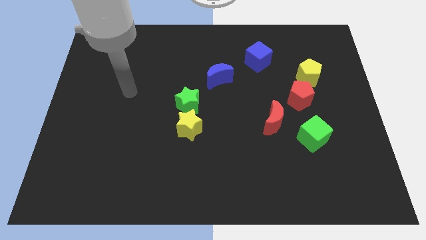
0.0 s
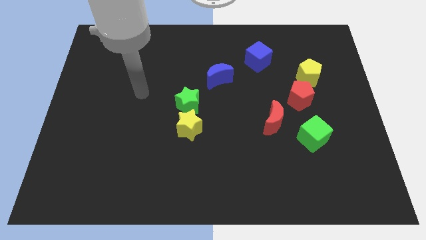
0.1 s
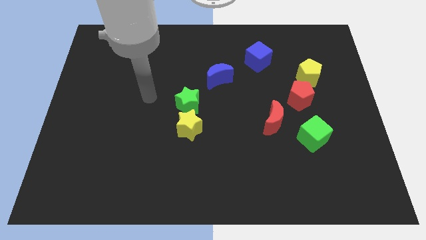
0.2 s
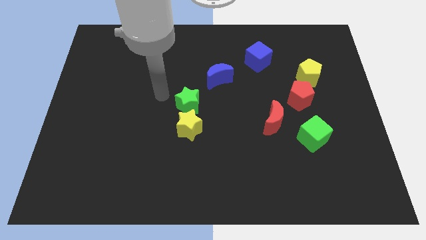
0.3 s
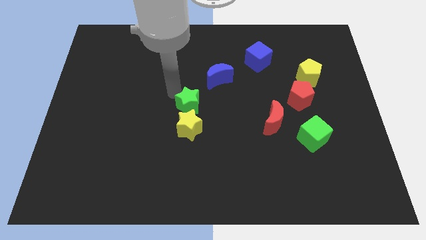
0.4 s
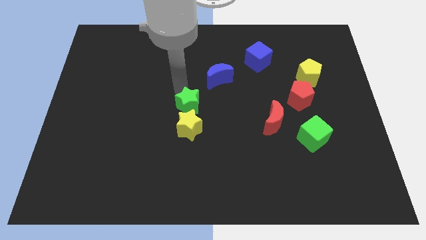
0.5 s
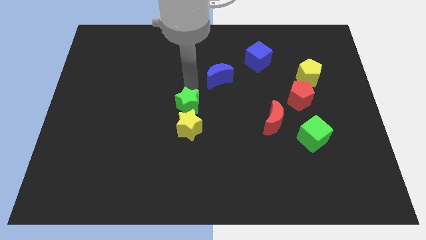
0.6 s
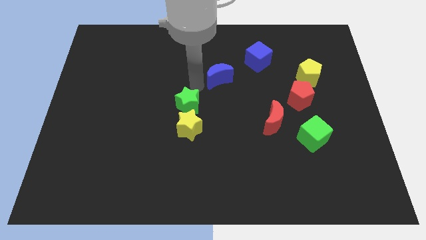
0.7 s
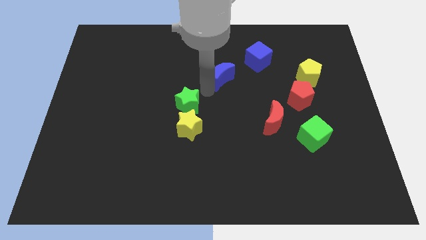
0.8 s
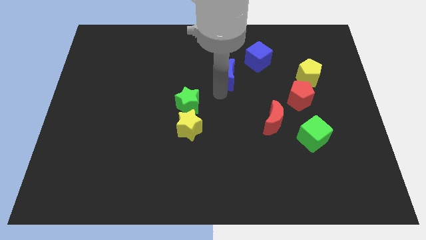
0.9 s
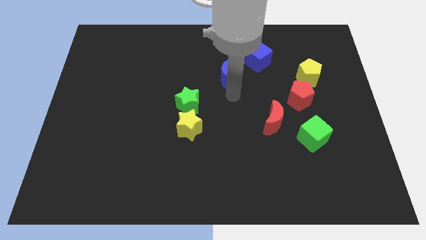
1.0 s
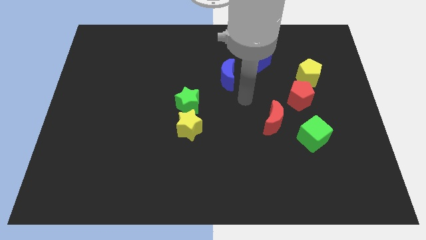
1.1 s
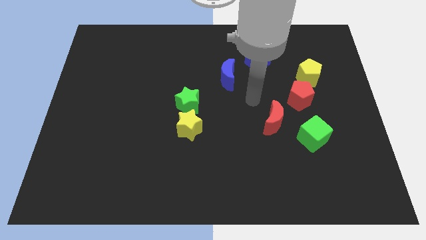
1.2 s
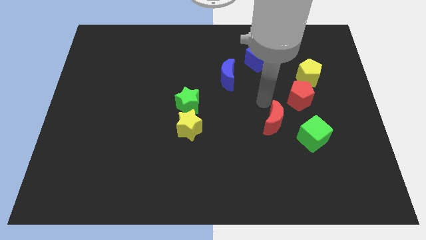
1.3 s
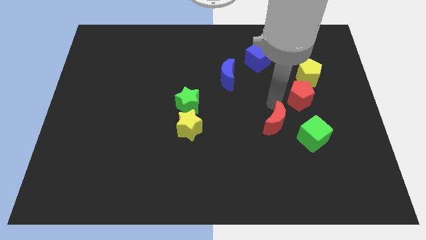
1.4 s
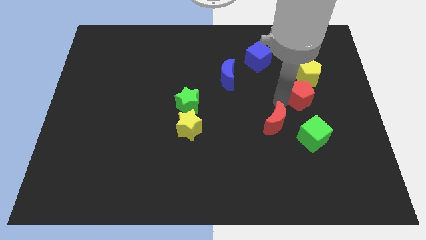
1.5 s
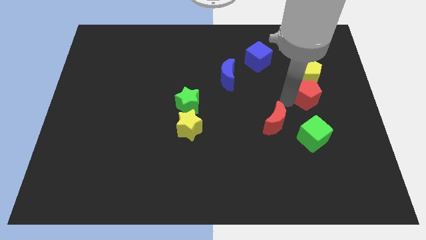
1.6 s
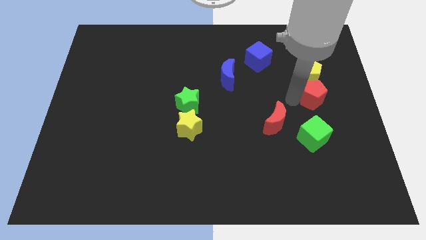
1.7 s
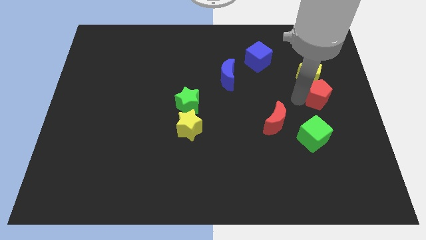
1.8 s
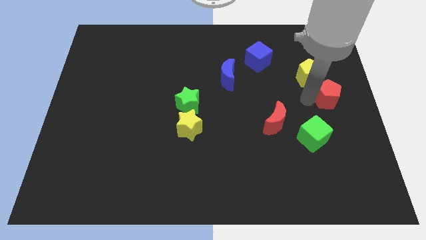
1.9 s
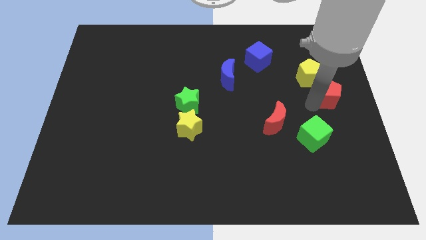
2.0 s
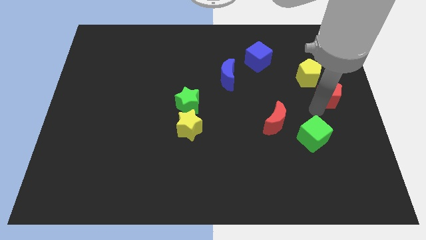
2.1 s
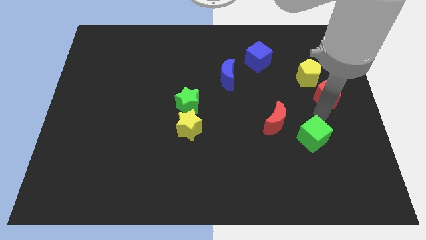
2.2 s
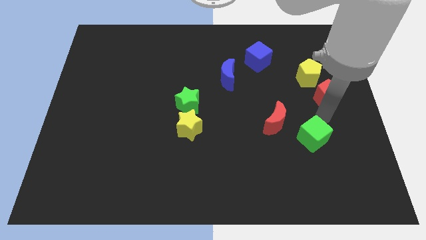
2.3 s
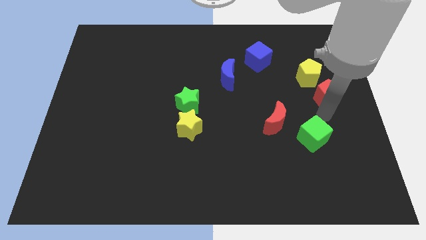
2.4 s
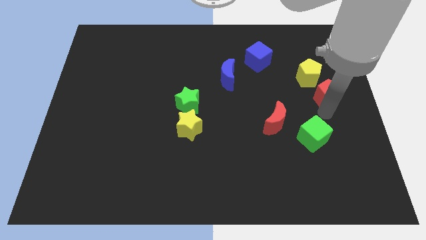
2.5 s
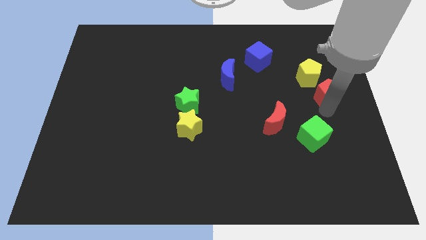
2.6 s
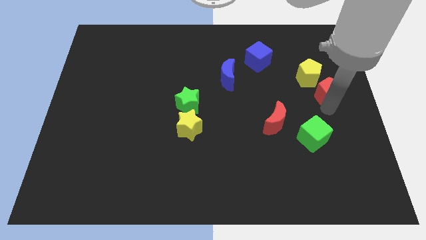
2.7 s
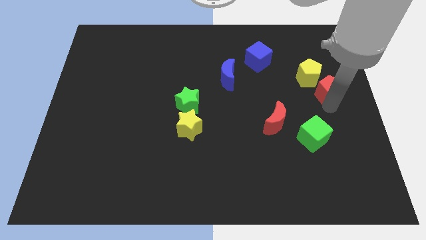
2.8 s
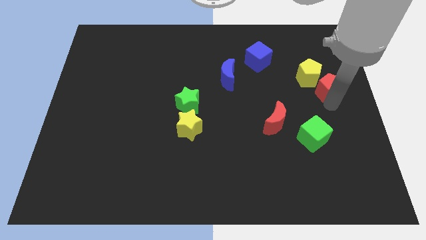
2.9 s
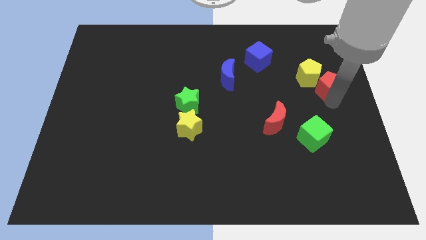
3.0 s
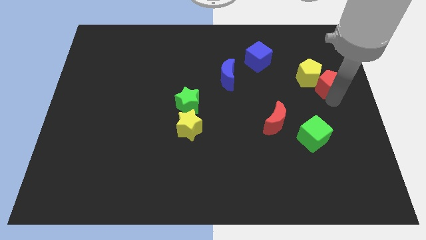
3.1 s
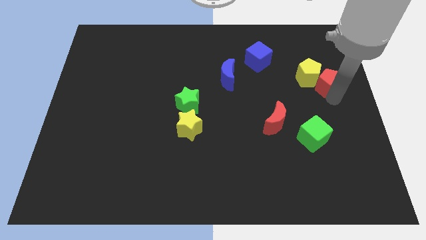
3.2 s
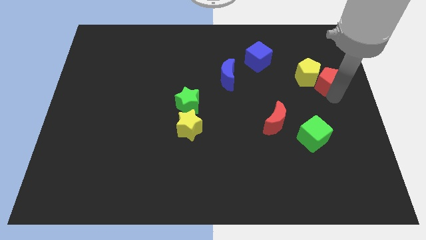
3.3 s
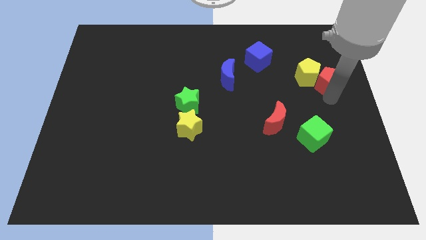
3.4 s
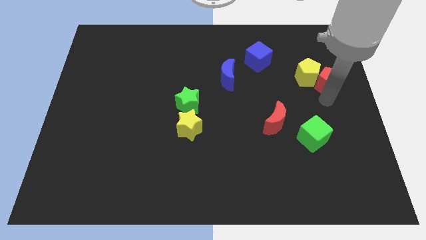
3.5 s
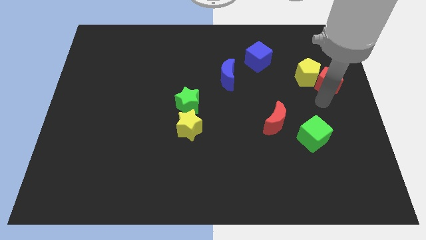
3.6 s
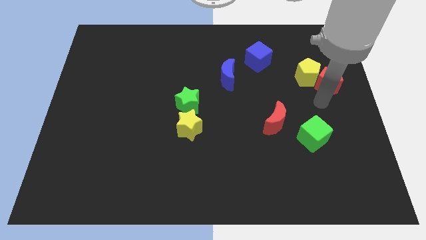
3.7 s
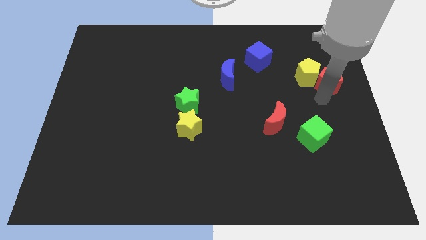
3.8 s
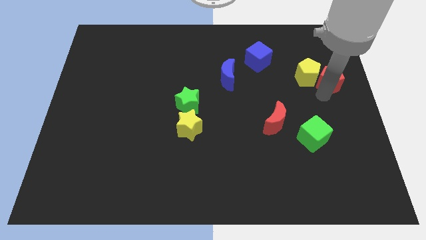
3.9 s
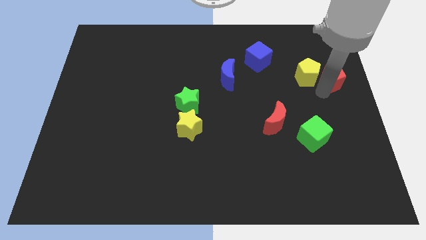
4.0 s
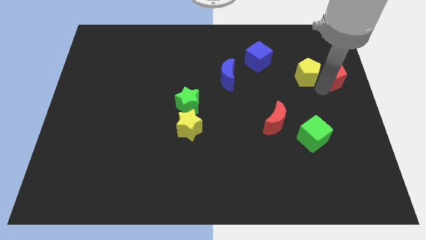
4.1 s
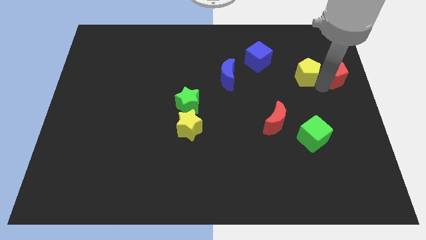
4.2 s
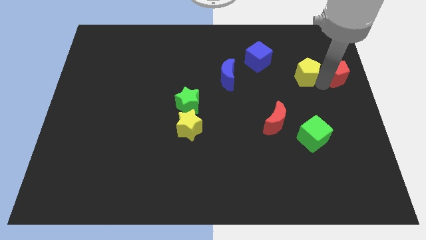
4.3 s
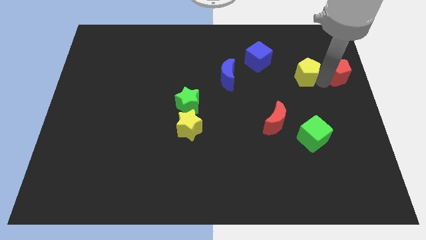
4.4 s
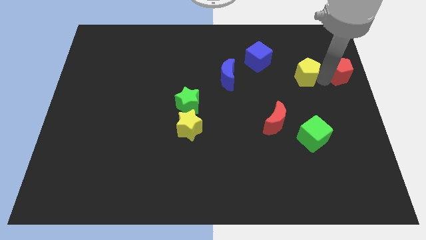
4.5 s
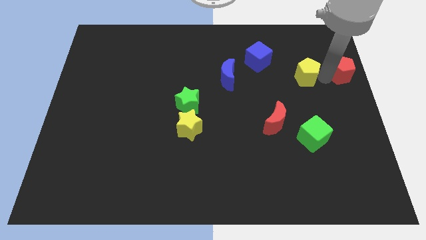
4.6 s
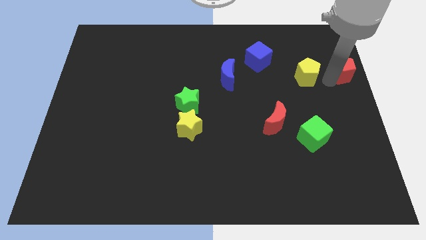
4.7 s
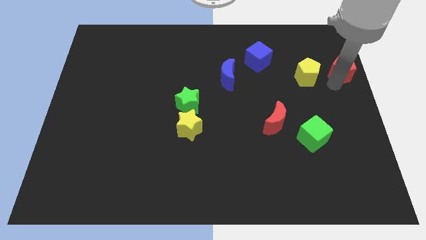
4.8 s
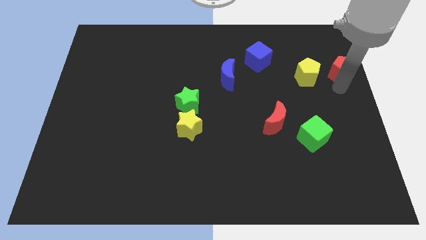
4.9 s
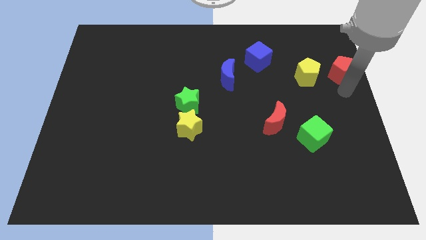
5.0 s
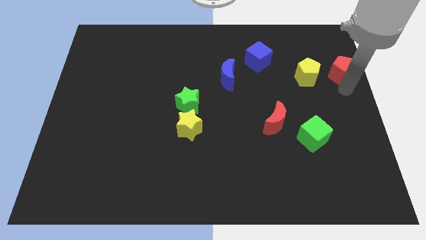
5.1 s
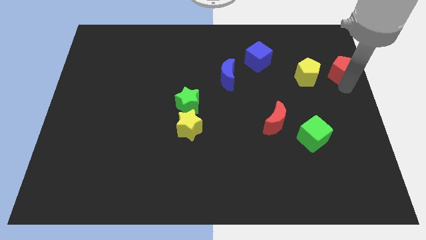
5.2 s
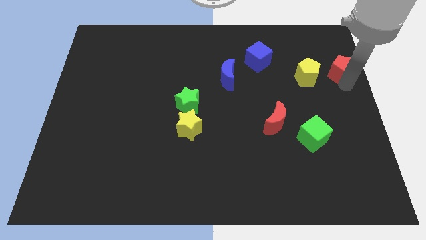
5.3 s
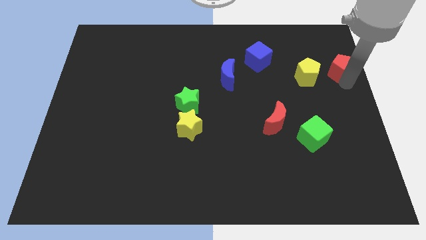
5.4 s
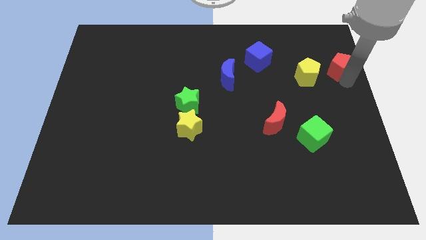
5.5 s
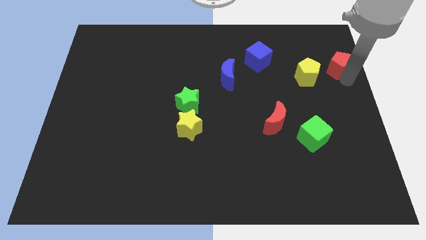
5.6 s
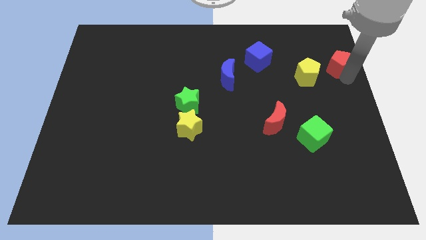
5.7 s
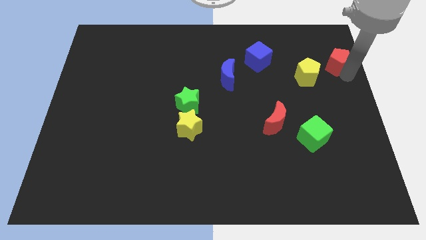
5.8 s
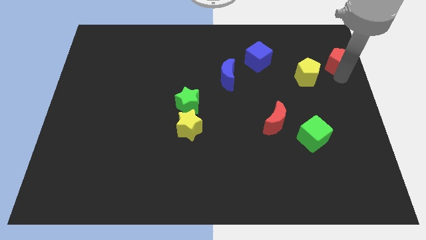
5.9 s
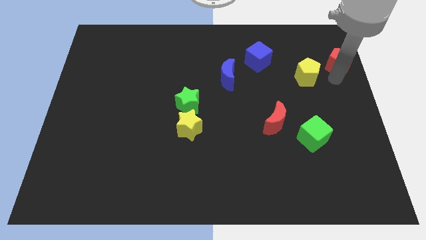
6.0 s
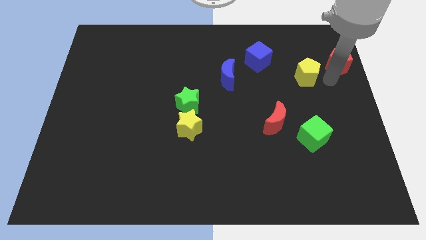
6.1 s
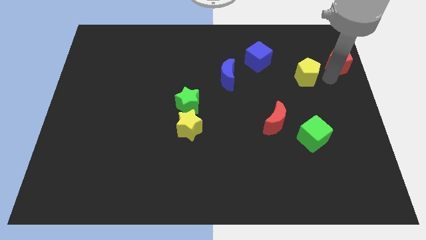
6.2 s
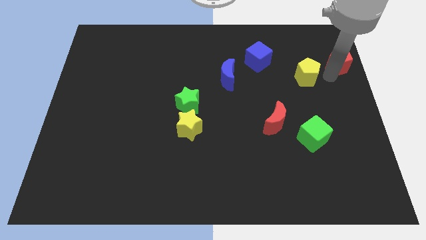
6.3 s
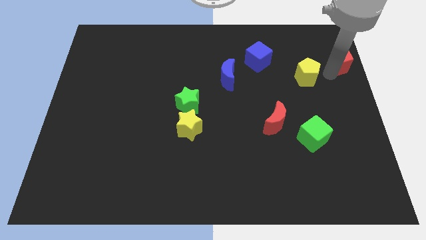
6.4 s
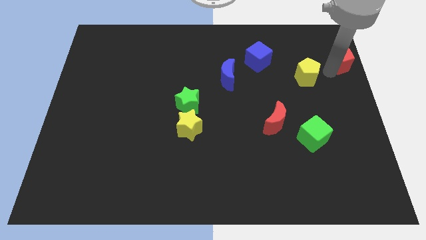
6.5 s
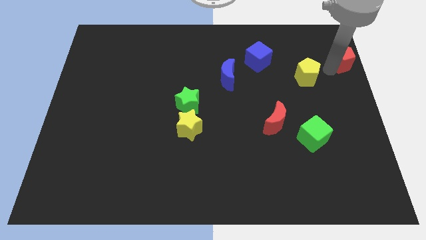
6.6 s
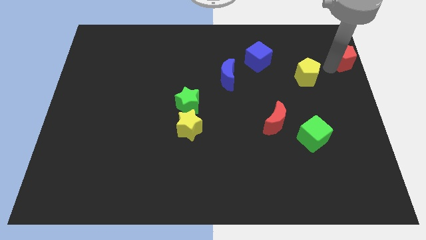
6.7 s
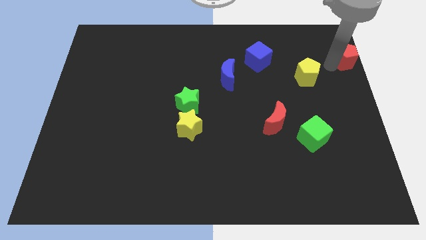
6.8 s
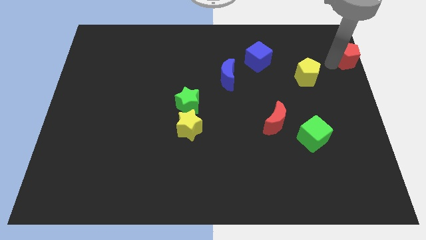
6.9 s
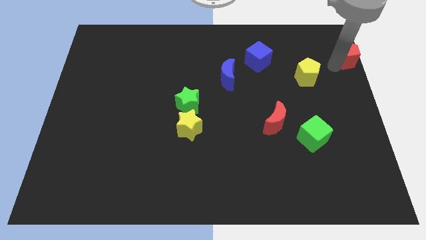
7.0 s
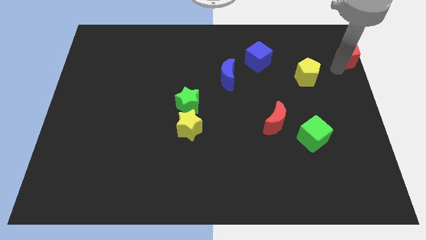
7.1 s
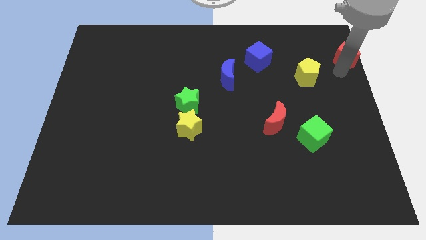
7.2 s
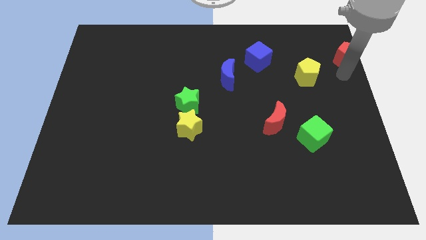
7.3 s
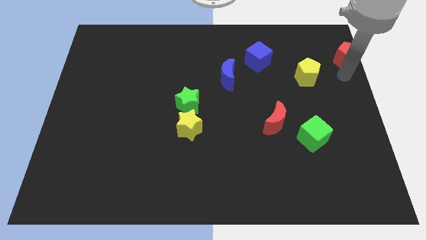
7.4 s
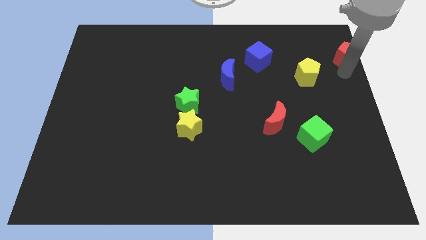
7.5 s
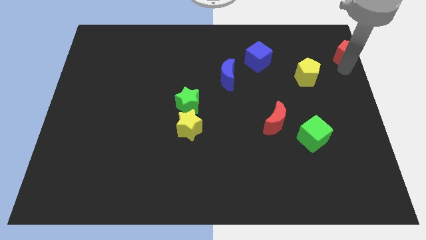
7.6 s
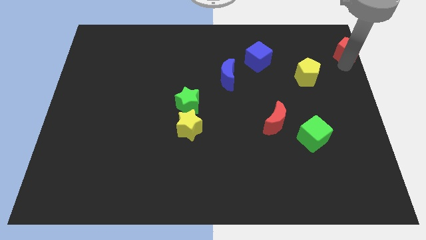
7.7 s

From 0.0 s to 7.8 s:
put the red pentagon to the top right of the board
